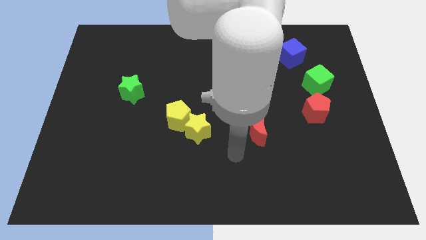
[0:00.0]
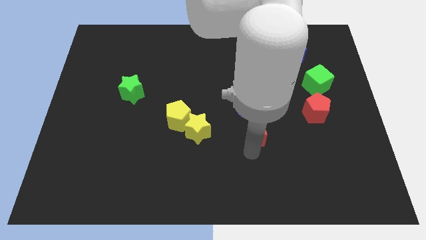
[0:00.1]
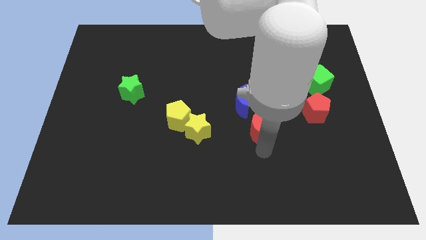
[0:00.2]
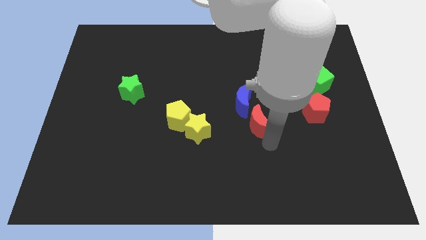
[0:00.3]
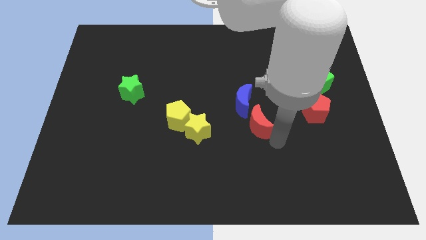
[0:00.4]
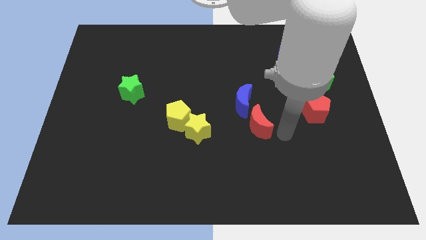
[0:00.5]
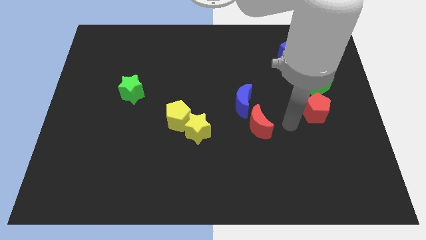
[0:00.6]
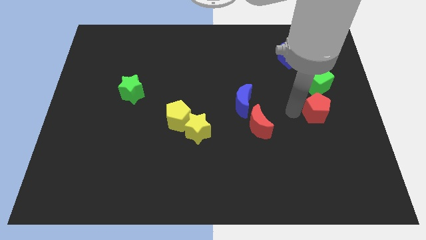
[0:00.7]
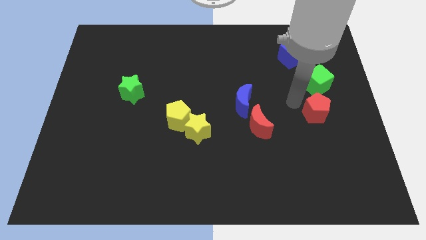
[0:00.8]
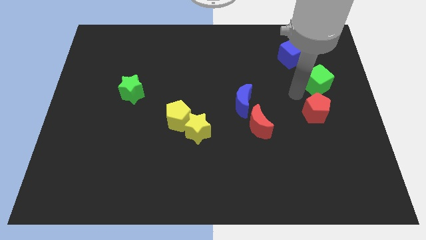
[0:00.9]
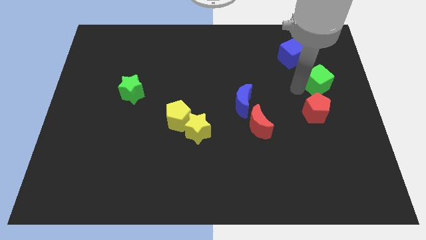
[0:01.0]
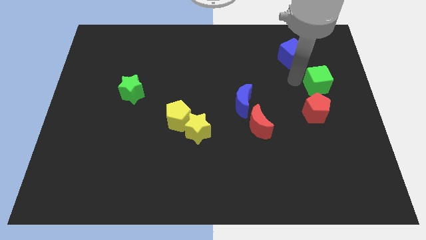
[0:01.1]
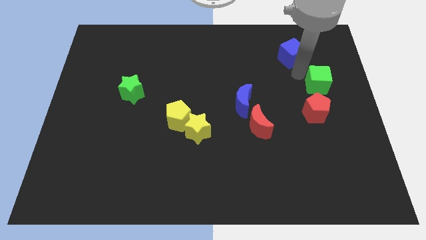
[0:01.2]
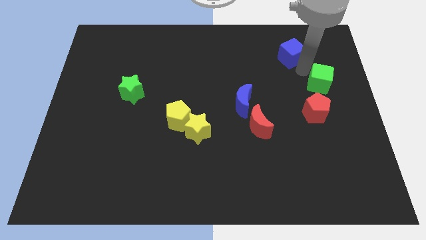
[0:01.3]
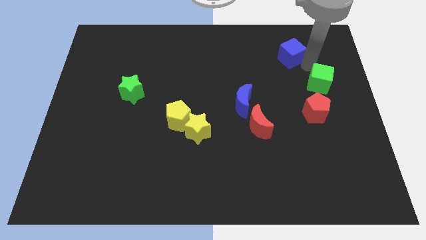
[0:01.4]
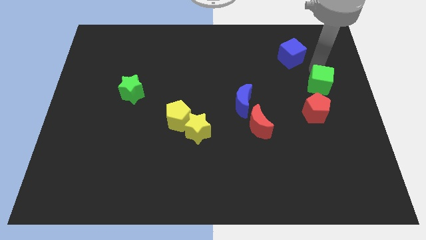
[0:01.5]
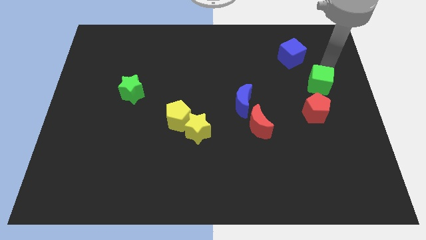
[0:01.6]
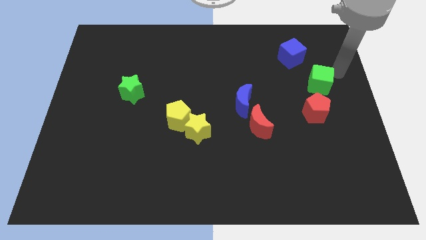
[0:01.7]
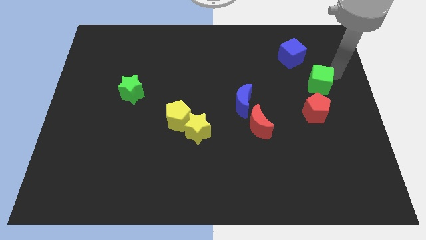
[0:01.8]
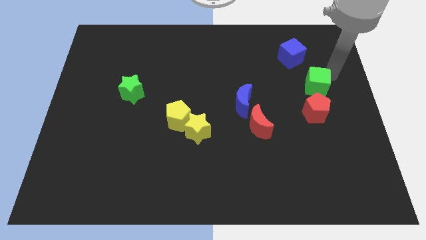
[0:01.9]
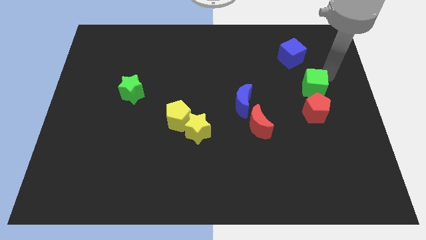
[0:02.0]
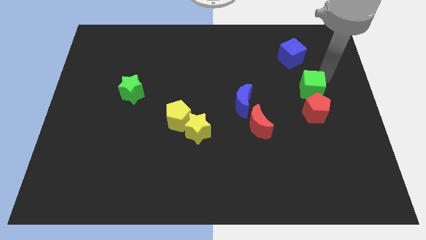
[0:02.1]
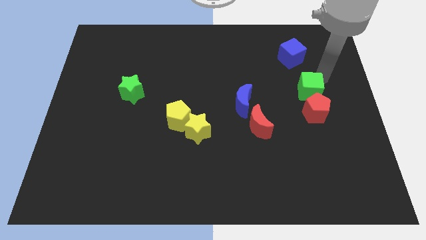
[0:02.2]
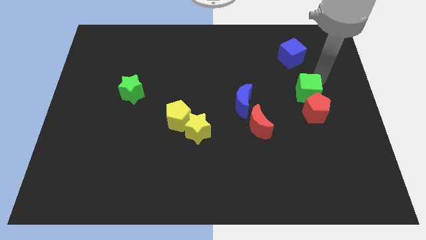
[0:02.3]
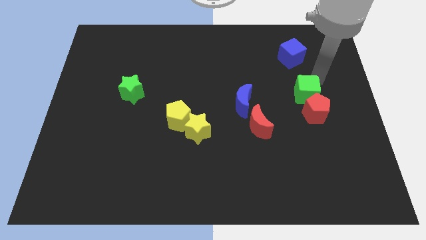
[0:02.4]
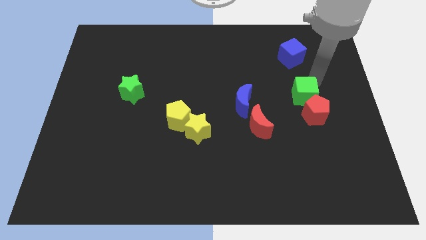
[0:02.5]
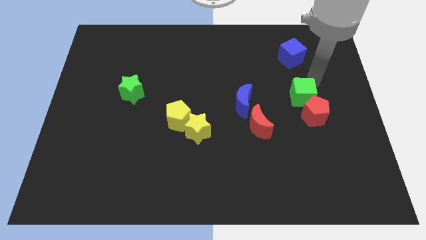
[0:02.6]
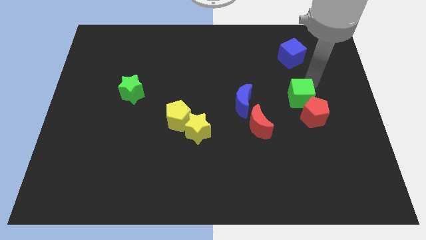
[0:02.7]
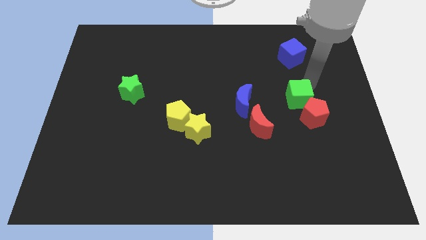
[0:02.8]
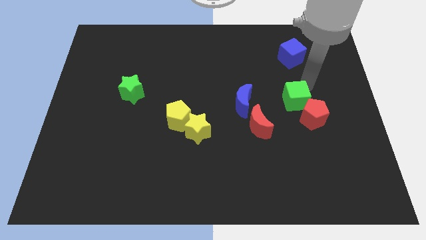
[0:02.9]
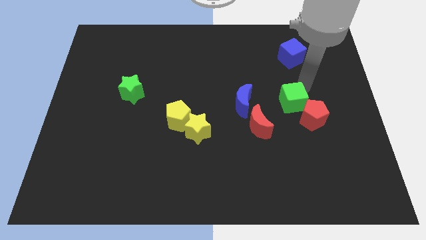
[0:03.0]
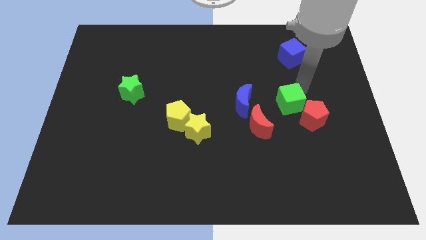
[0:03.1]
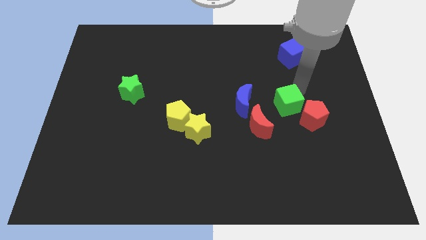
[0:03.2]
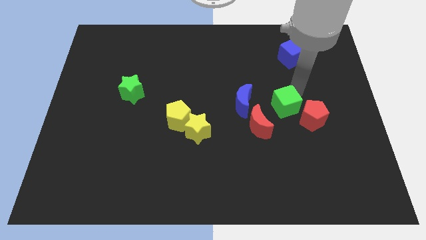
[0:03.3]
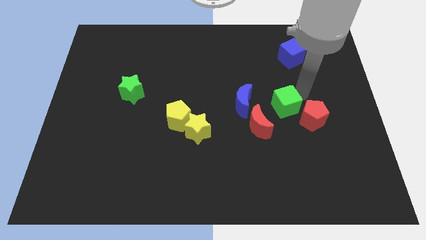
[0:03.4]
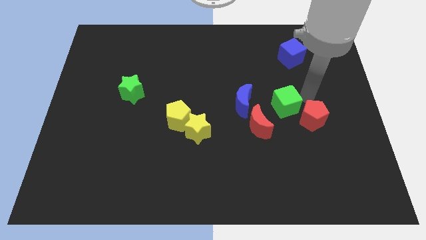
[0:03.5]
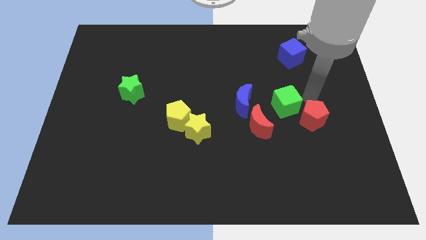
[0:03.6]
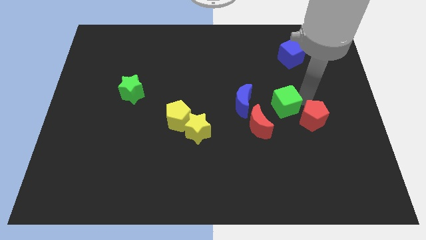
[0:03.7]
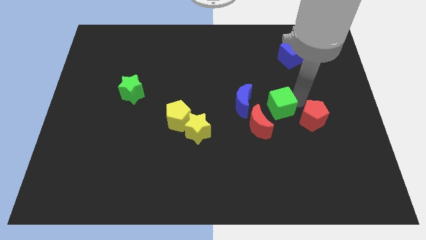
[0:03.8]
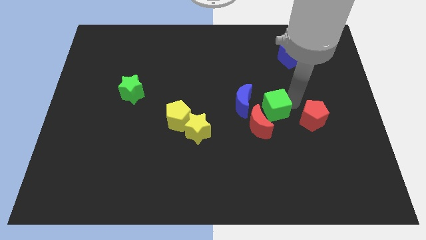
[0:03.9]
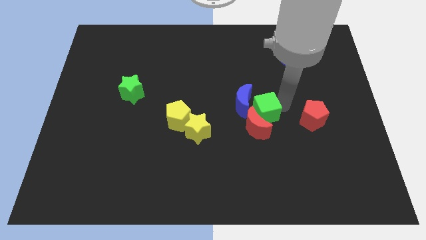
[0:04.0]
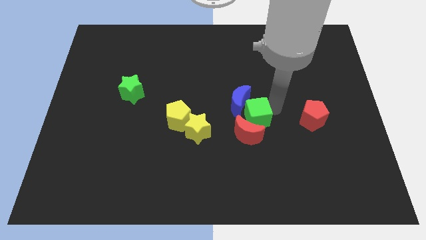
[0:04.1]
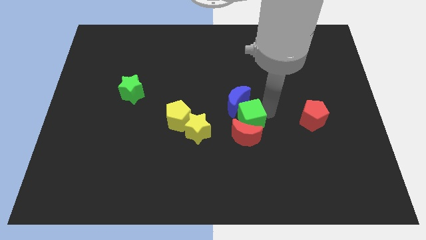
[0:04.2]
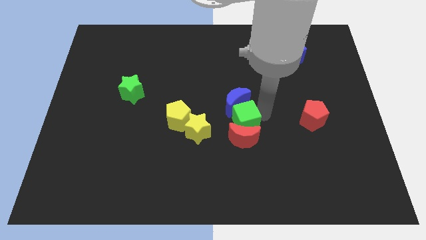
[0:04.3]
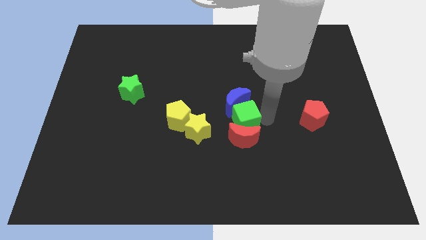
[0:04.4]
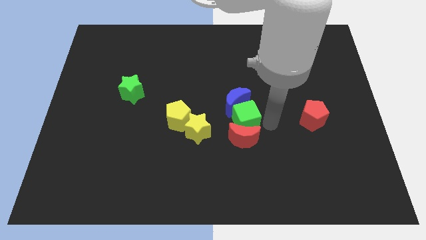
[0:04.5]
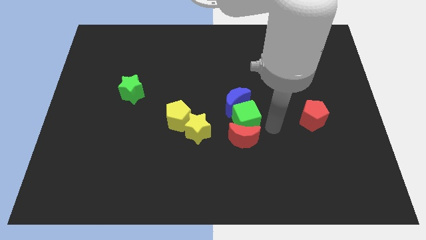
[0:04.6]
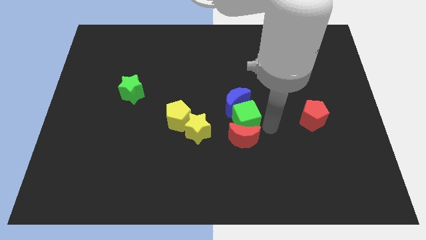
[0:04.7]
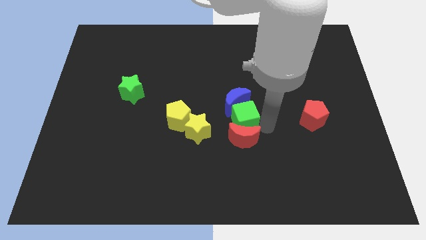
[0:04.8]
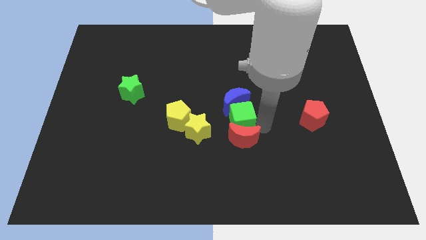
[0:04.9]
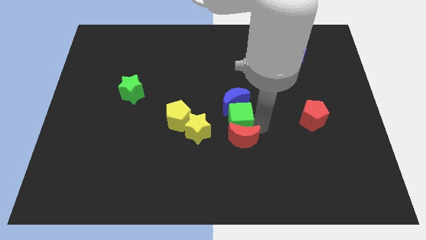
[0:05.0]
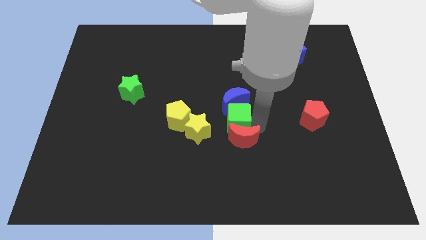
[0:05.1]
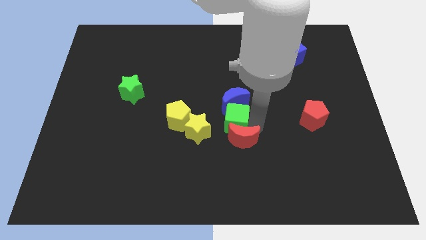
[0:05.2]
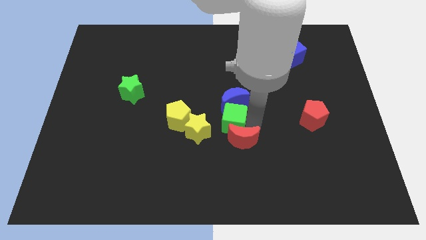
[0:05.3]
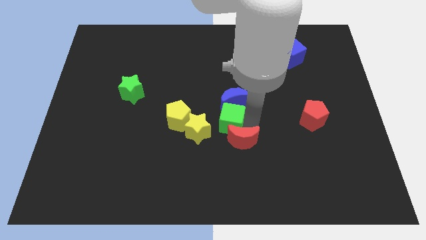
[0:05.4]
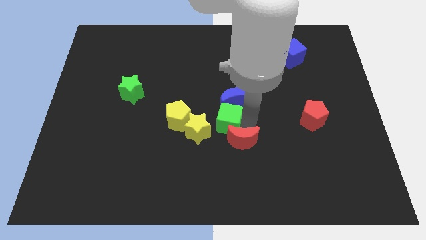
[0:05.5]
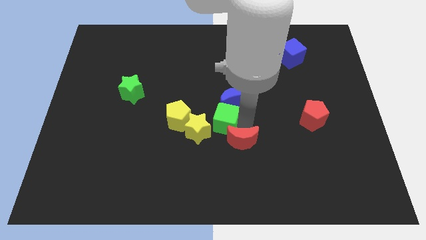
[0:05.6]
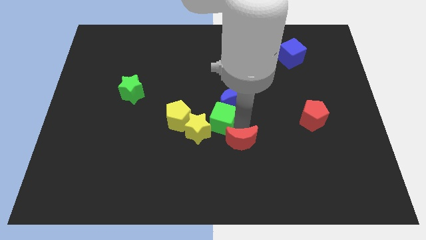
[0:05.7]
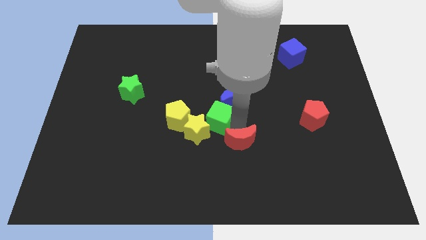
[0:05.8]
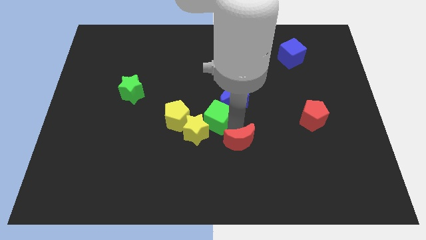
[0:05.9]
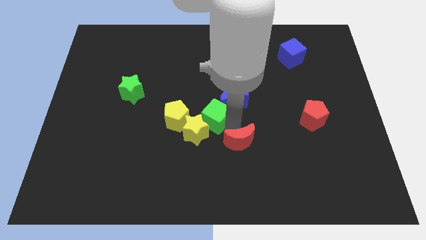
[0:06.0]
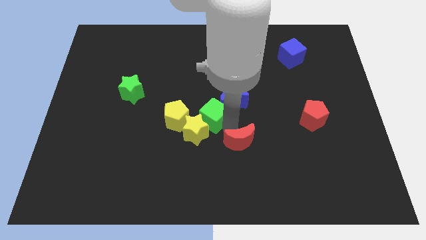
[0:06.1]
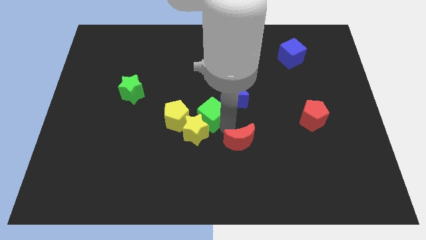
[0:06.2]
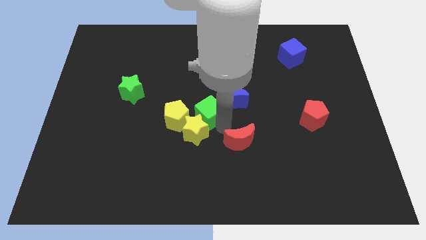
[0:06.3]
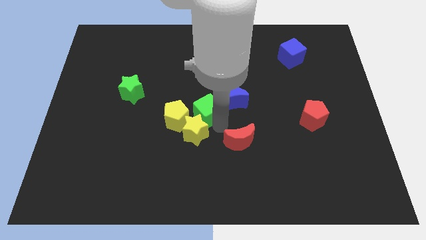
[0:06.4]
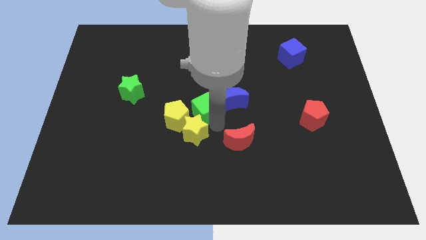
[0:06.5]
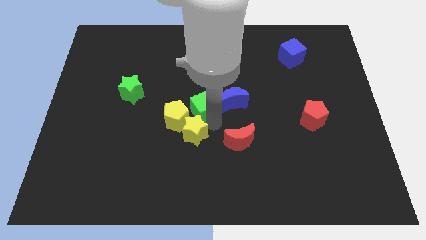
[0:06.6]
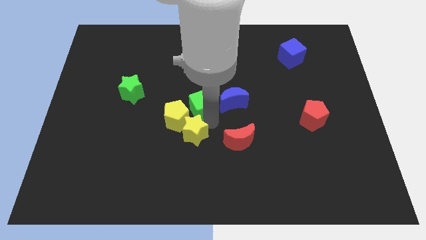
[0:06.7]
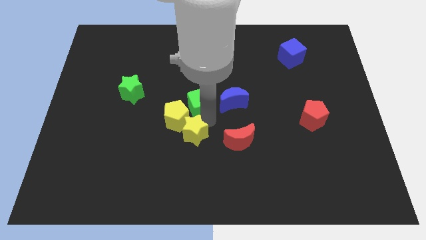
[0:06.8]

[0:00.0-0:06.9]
put the green cube next to the yellow pentagon

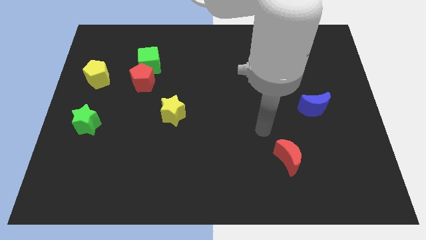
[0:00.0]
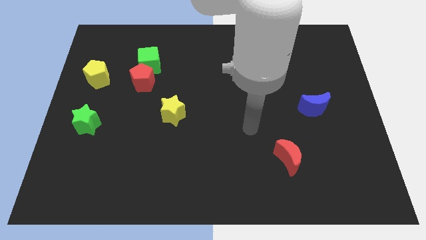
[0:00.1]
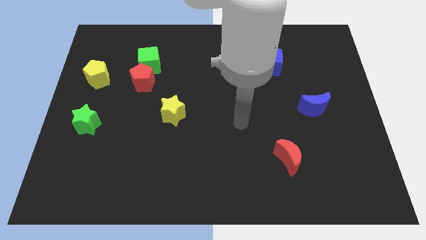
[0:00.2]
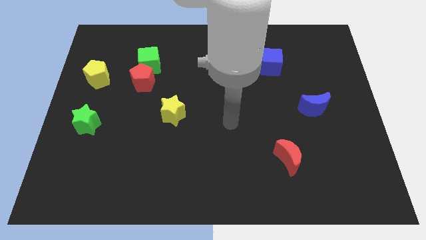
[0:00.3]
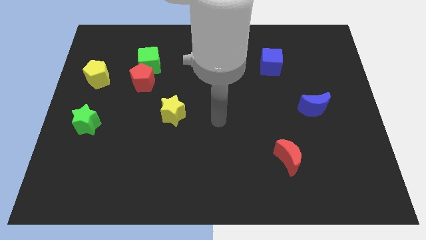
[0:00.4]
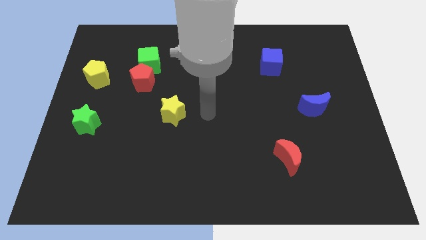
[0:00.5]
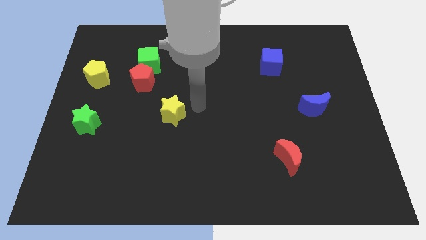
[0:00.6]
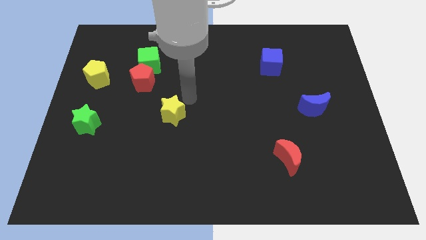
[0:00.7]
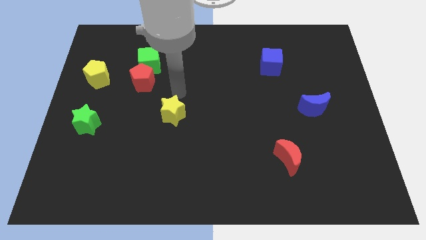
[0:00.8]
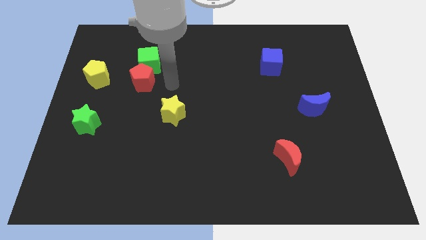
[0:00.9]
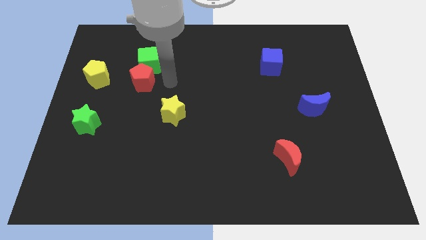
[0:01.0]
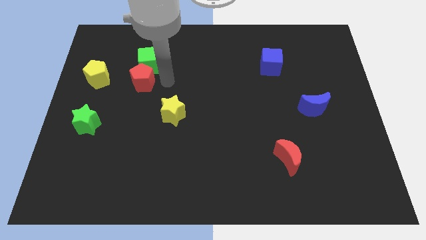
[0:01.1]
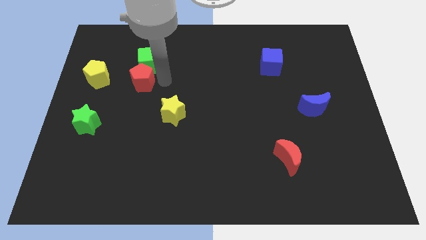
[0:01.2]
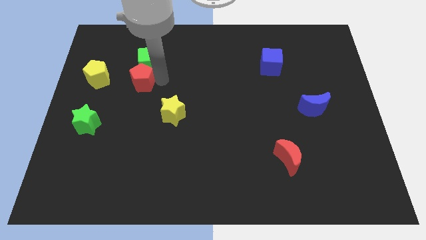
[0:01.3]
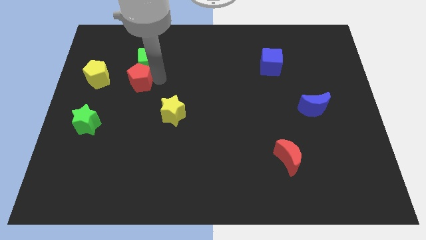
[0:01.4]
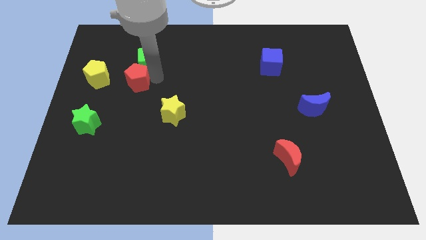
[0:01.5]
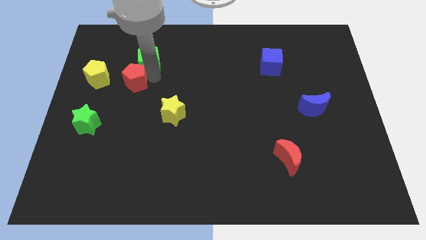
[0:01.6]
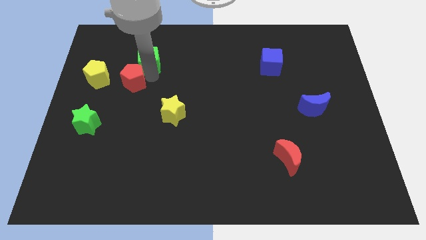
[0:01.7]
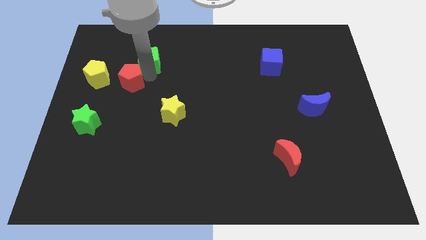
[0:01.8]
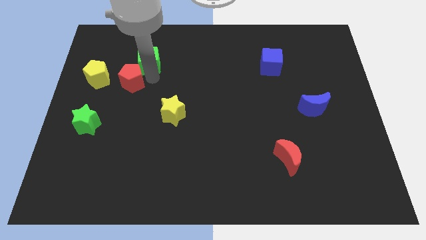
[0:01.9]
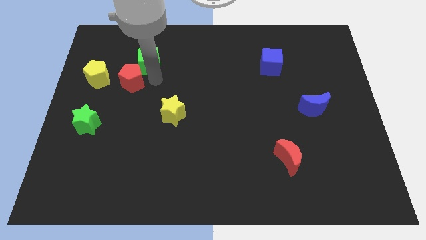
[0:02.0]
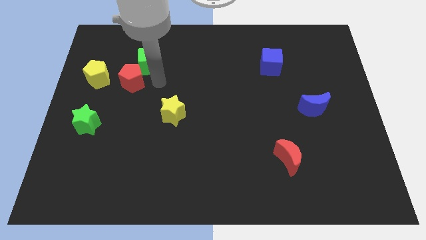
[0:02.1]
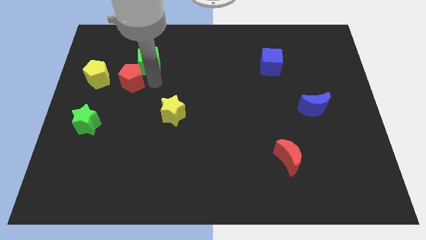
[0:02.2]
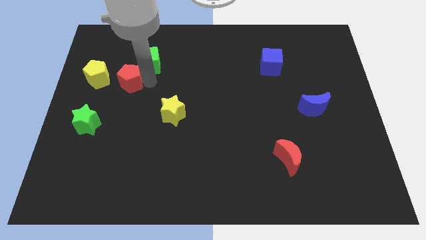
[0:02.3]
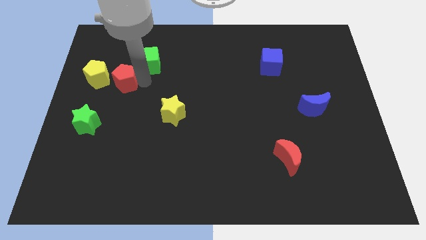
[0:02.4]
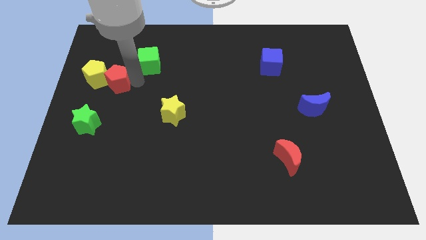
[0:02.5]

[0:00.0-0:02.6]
move the red pentagon towards the yellow pentagon
